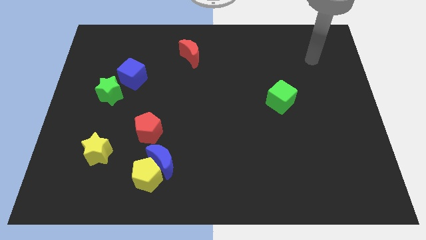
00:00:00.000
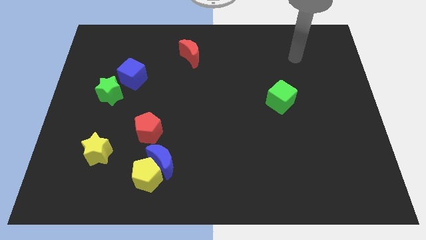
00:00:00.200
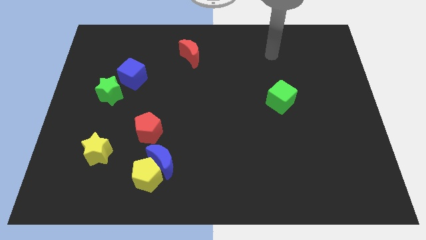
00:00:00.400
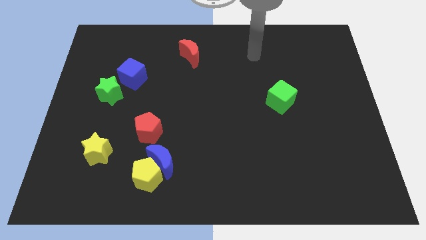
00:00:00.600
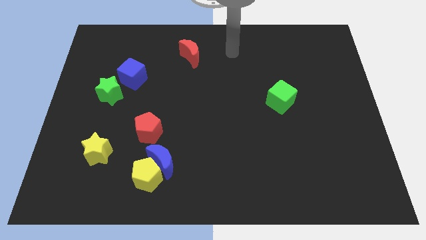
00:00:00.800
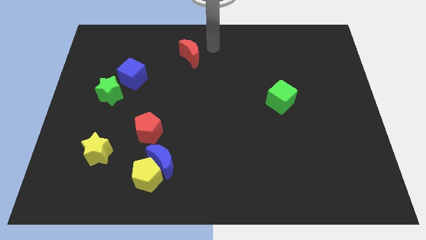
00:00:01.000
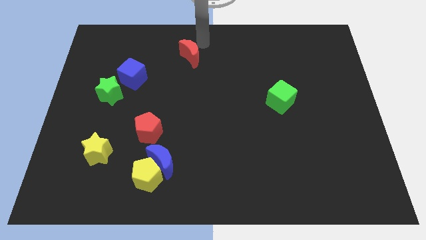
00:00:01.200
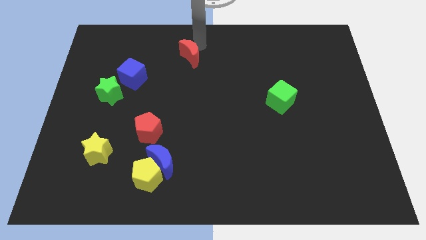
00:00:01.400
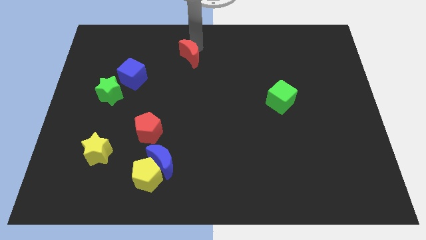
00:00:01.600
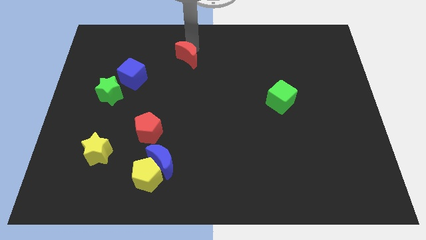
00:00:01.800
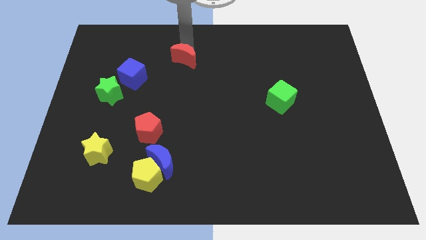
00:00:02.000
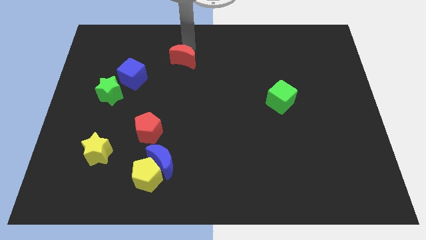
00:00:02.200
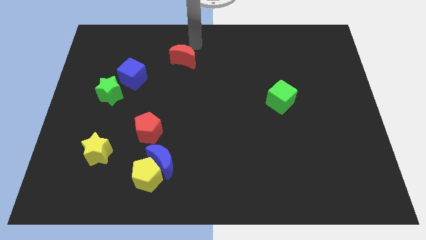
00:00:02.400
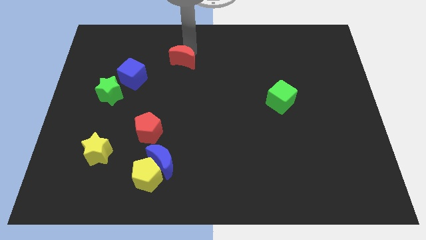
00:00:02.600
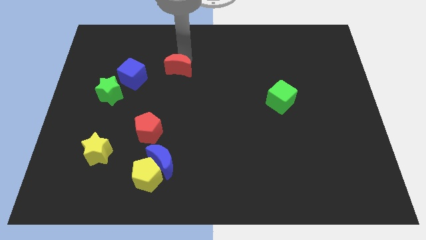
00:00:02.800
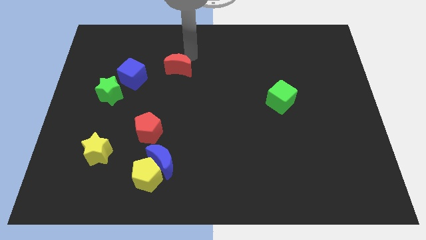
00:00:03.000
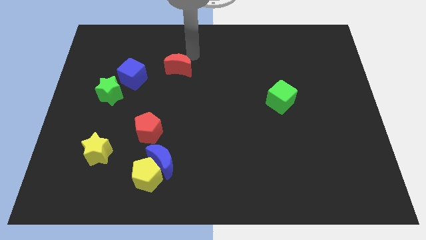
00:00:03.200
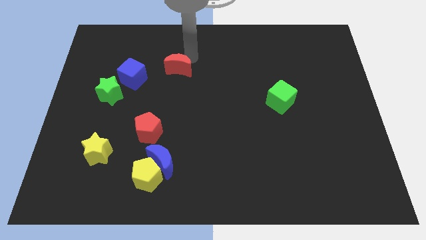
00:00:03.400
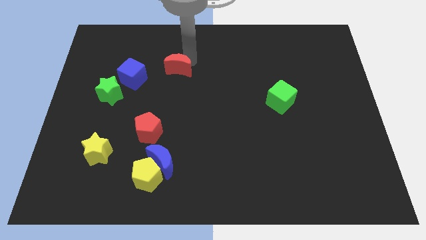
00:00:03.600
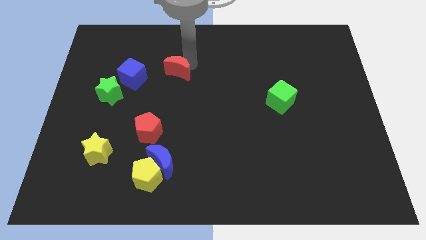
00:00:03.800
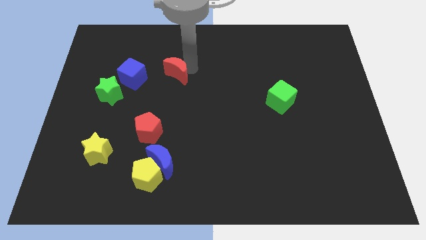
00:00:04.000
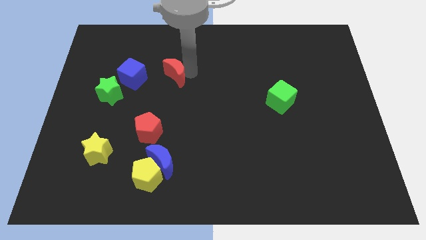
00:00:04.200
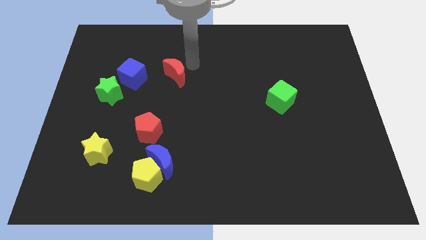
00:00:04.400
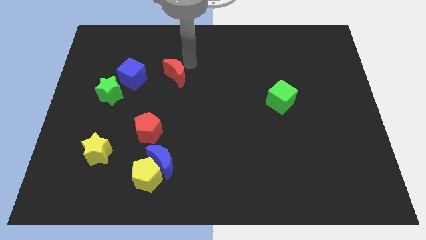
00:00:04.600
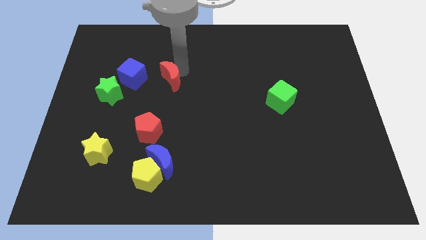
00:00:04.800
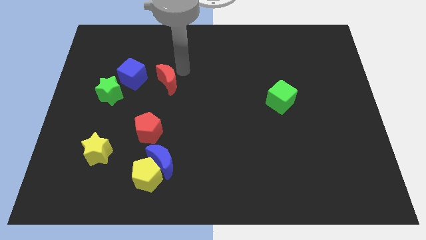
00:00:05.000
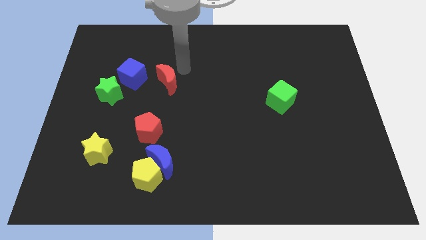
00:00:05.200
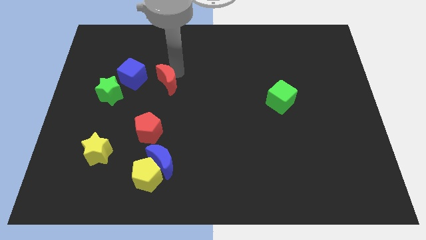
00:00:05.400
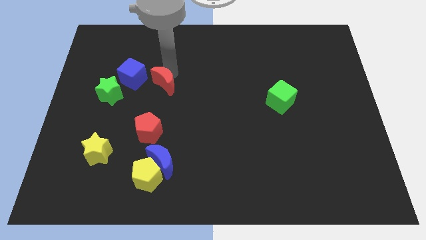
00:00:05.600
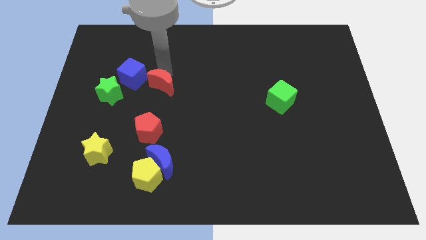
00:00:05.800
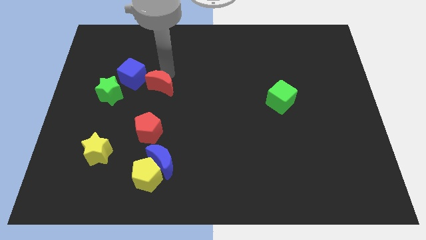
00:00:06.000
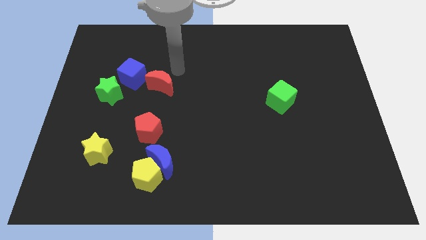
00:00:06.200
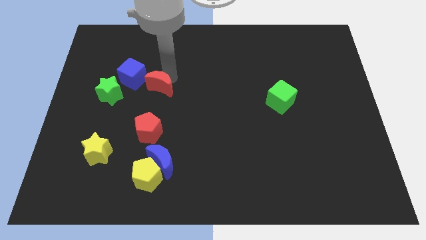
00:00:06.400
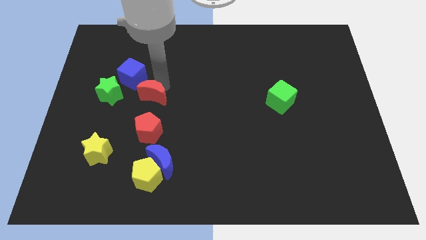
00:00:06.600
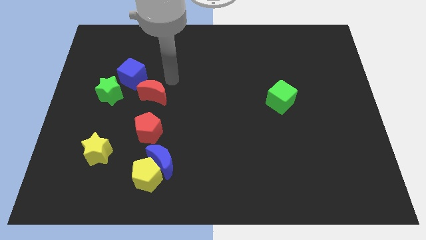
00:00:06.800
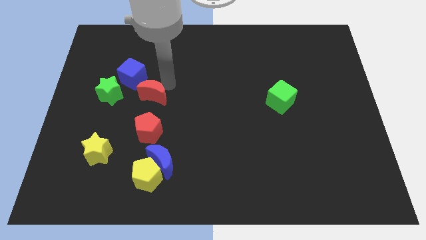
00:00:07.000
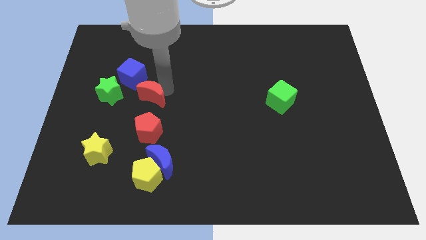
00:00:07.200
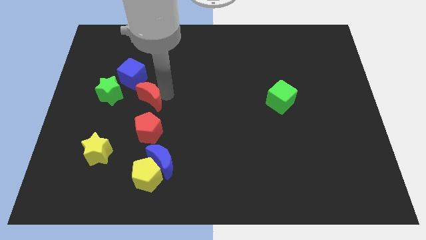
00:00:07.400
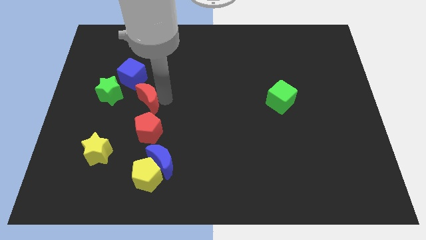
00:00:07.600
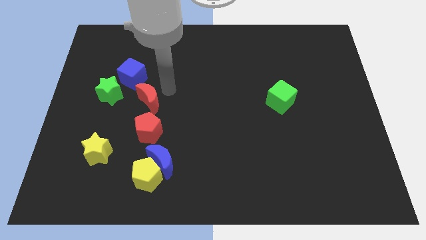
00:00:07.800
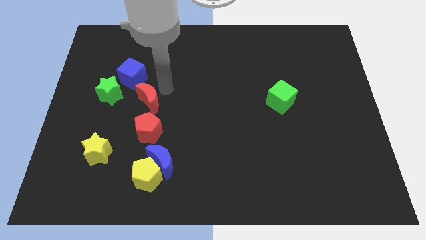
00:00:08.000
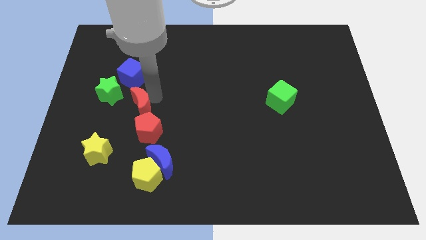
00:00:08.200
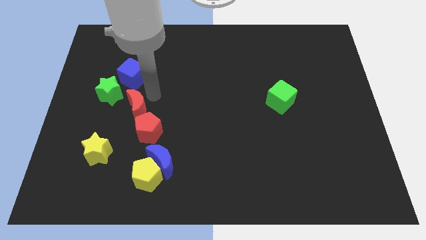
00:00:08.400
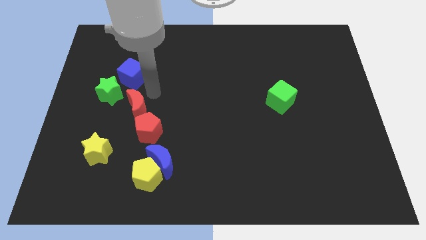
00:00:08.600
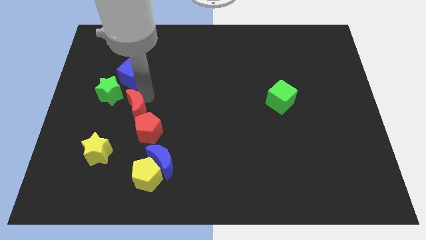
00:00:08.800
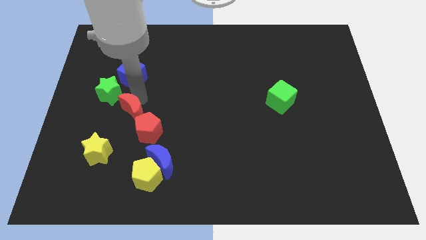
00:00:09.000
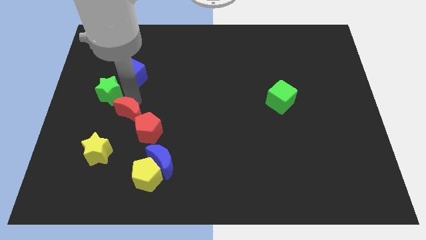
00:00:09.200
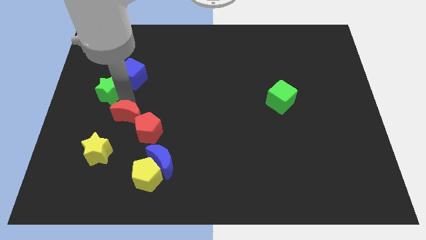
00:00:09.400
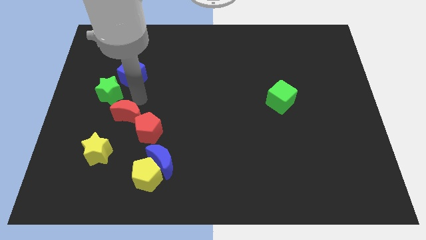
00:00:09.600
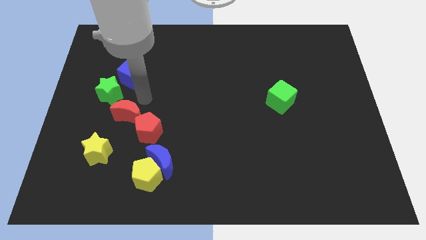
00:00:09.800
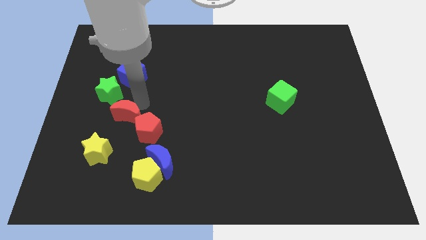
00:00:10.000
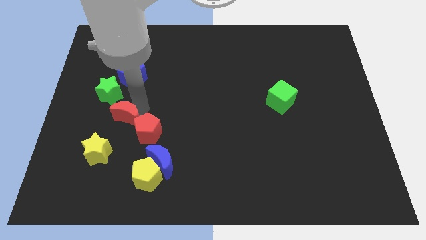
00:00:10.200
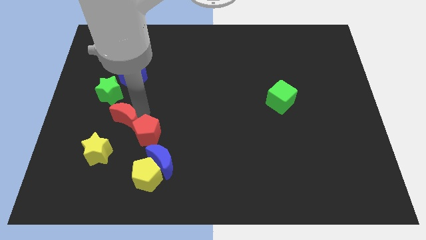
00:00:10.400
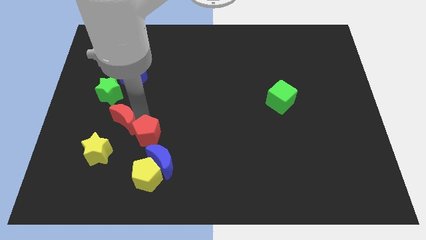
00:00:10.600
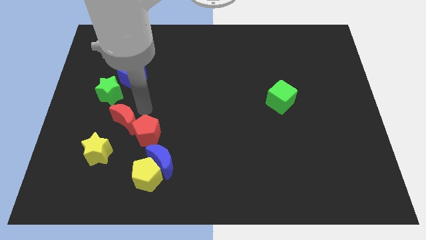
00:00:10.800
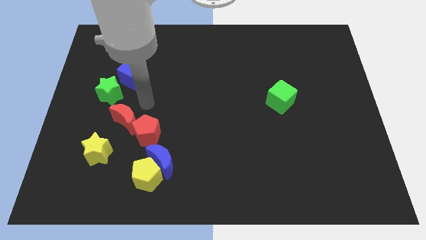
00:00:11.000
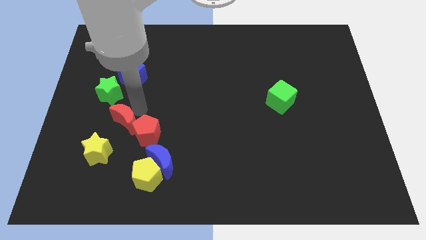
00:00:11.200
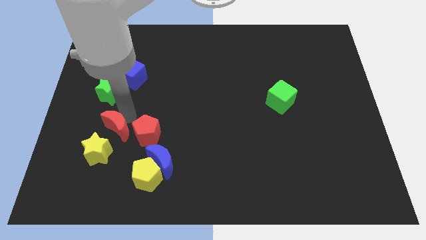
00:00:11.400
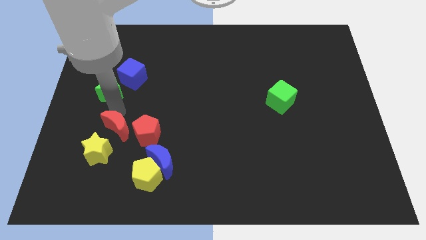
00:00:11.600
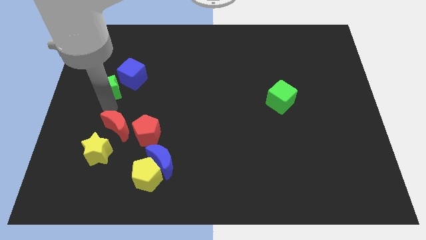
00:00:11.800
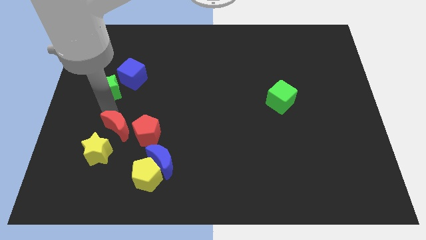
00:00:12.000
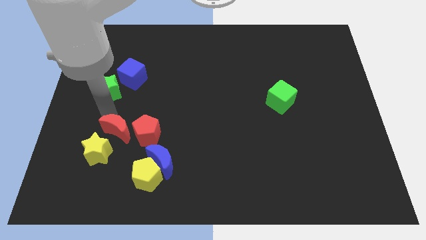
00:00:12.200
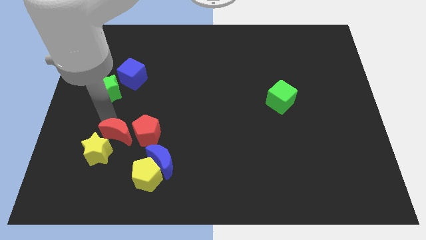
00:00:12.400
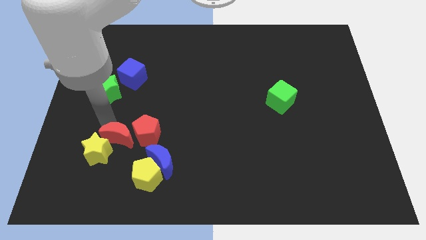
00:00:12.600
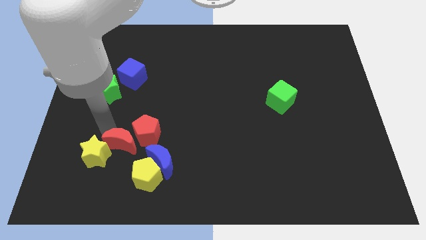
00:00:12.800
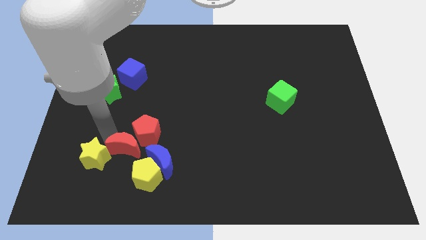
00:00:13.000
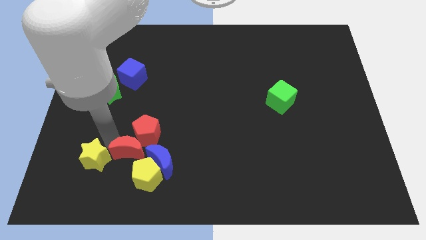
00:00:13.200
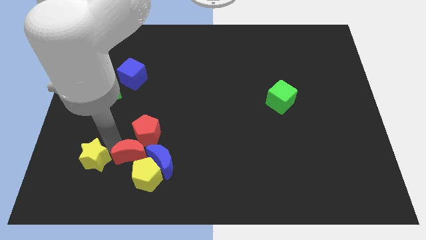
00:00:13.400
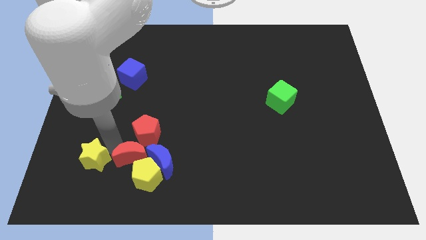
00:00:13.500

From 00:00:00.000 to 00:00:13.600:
put the red moon close to the yellow pentagon
